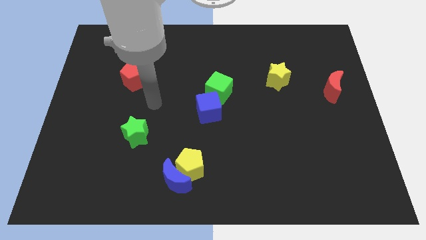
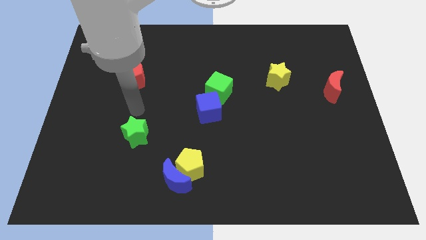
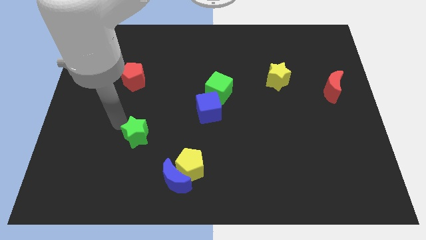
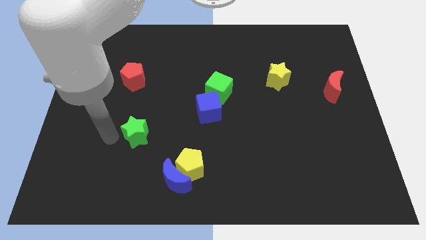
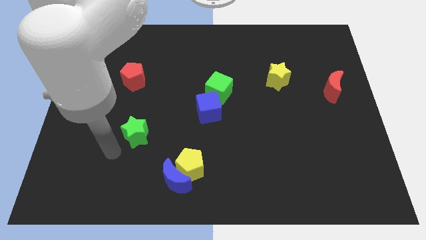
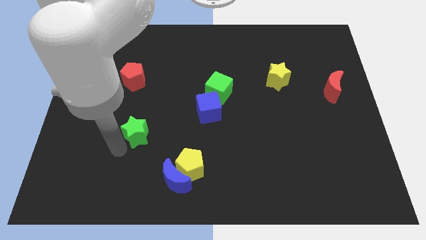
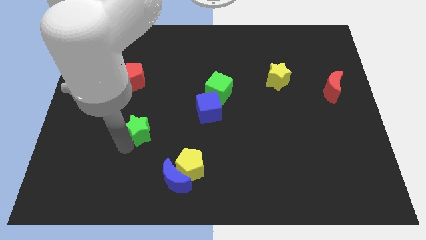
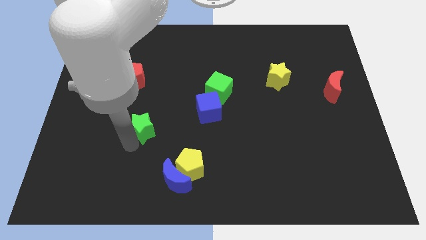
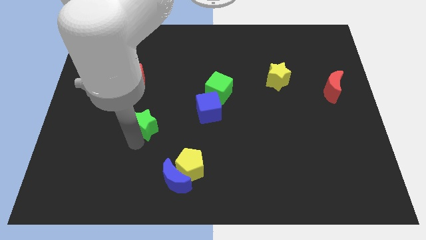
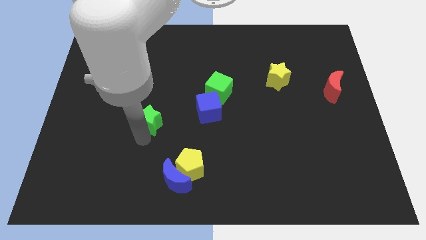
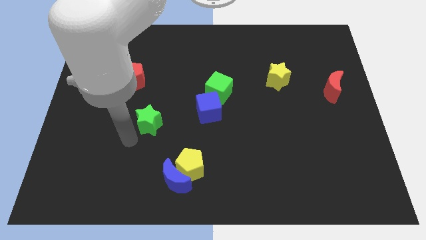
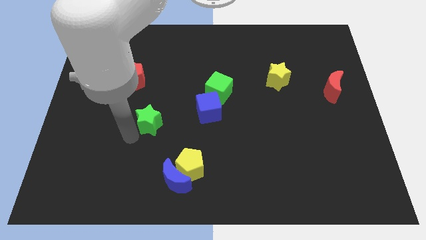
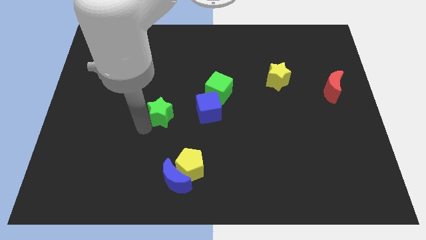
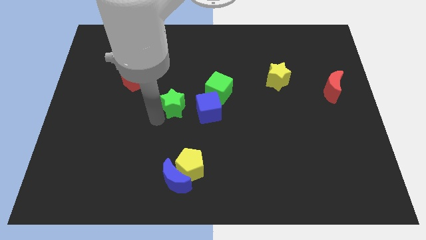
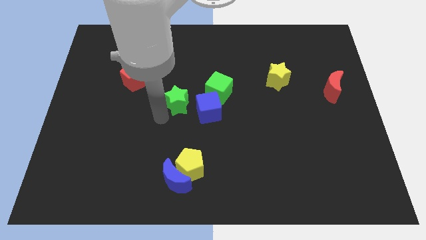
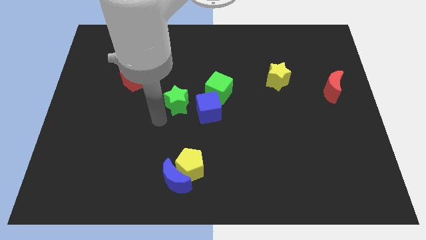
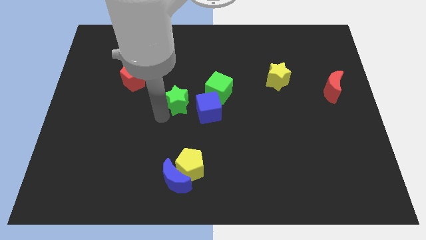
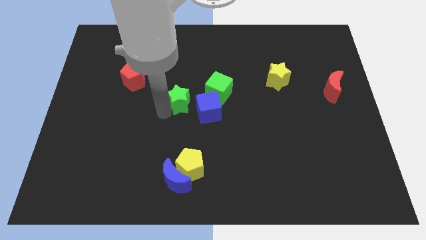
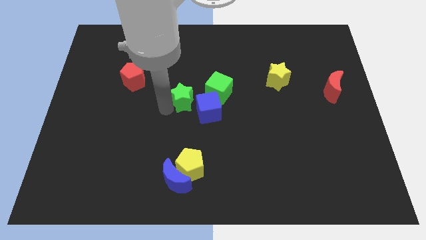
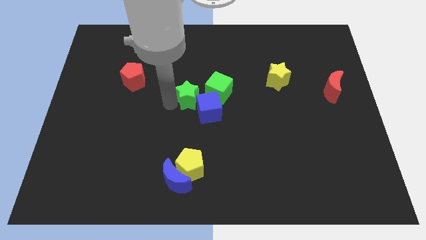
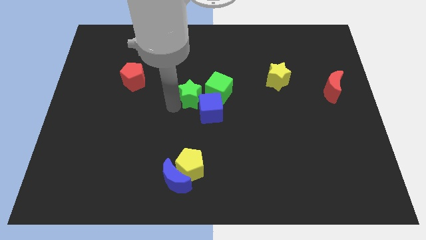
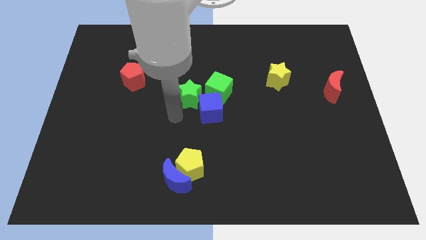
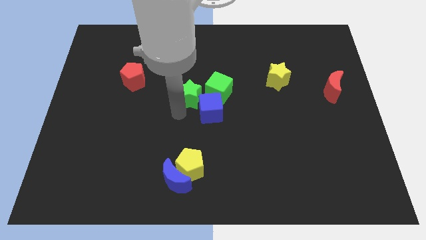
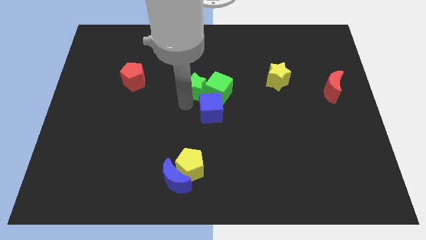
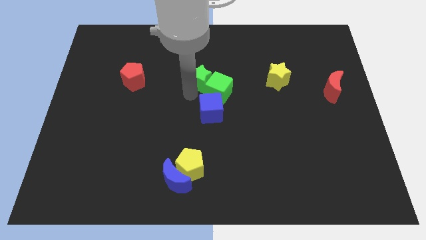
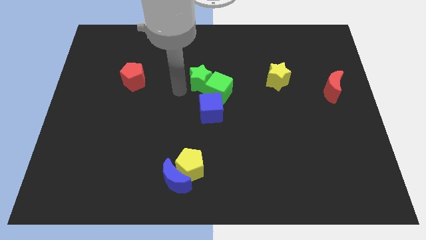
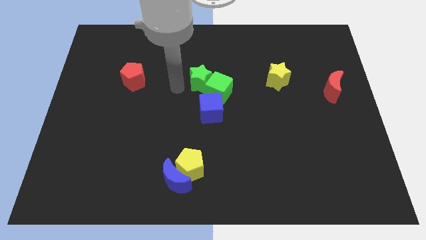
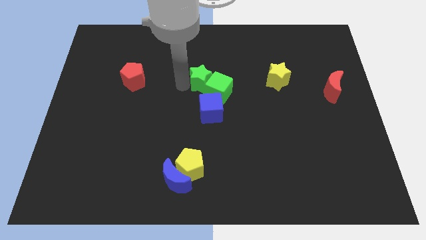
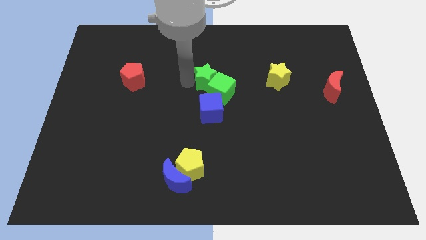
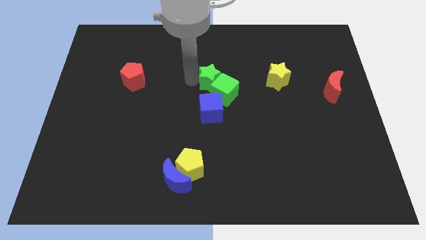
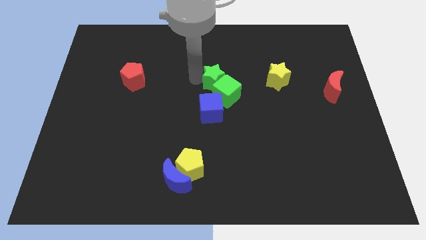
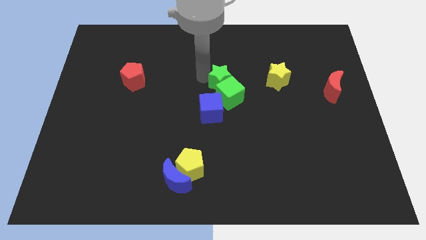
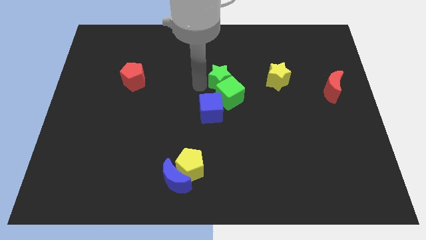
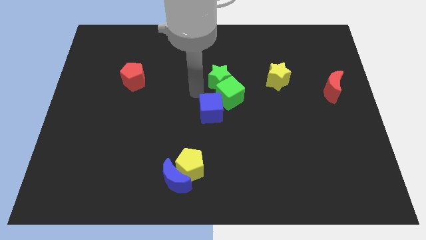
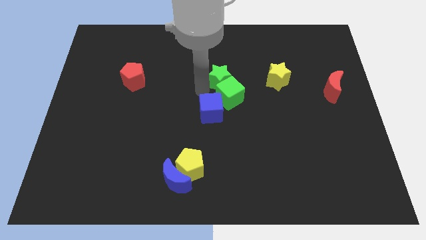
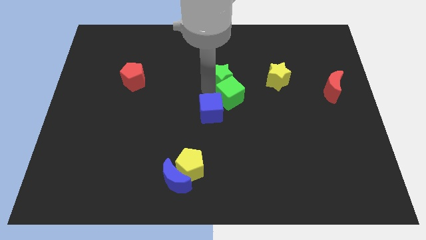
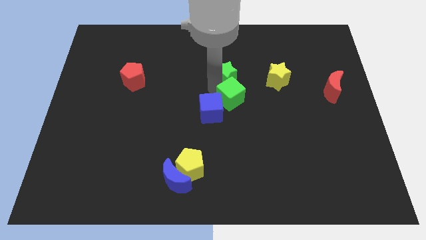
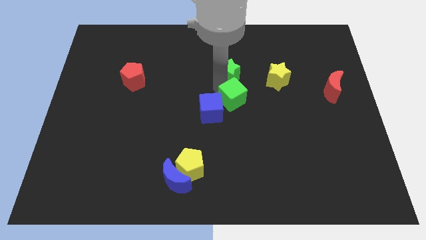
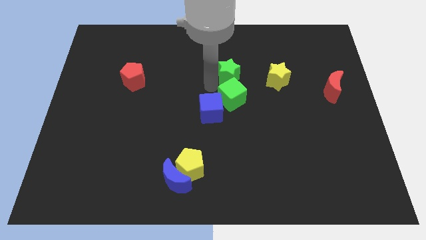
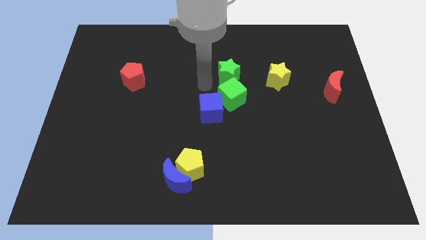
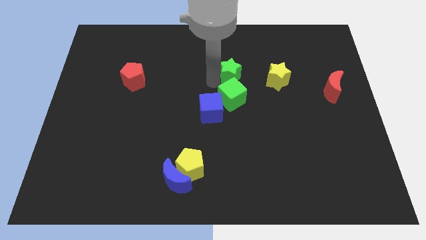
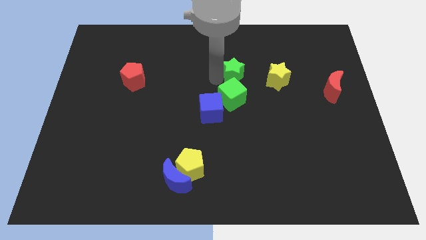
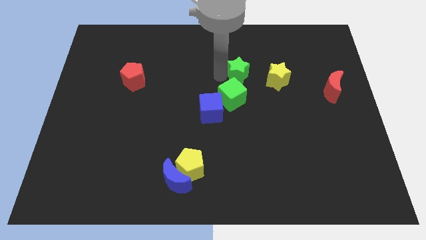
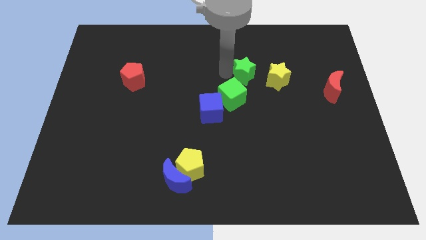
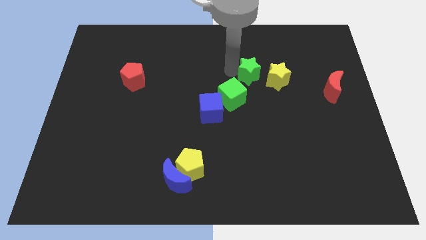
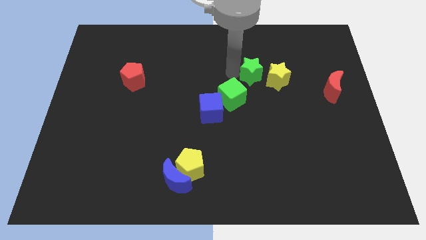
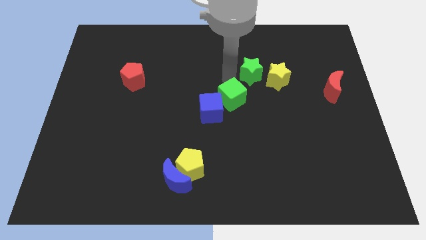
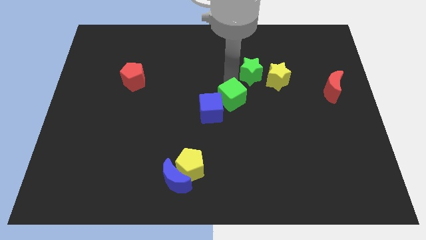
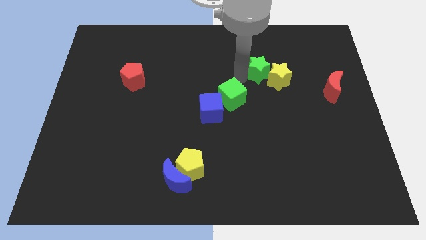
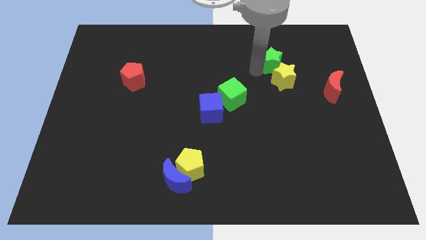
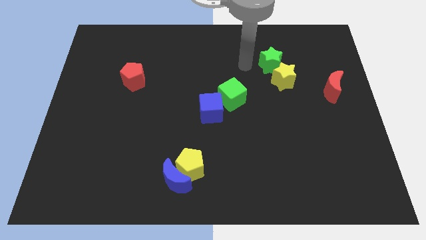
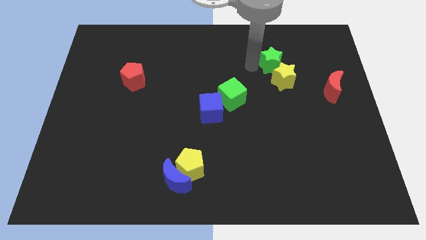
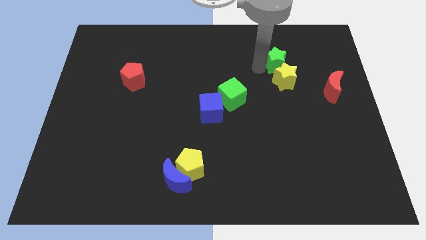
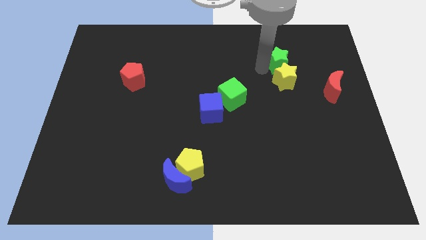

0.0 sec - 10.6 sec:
put the green star diagonally up and to the right of the yellow star

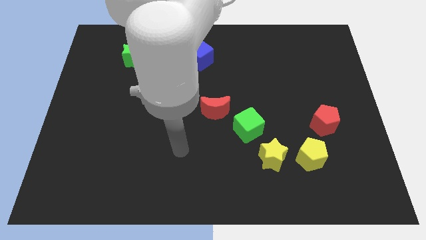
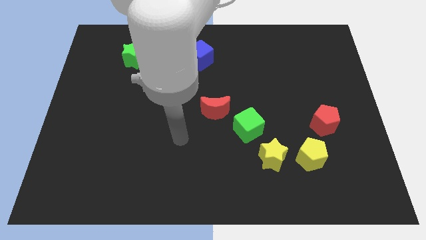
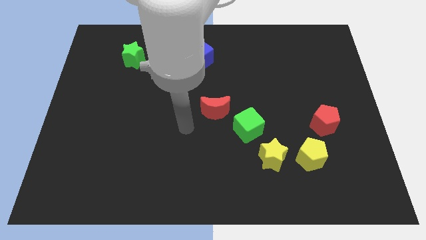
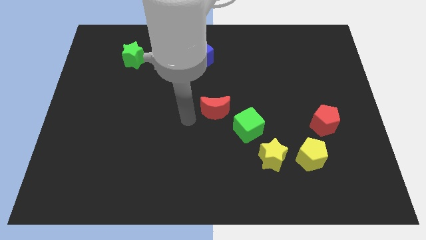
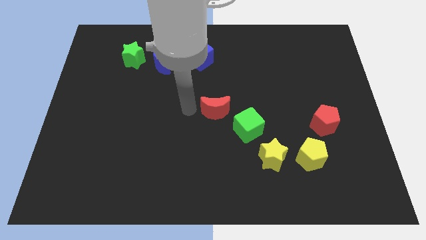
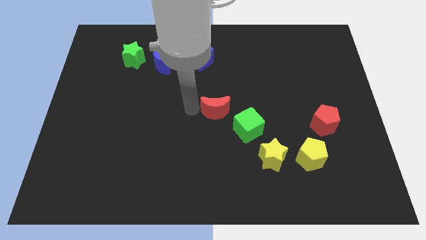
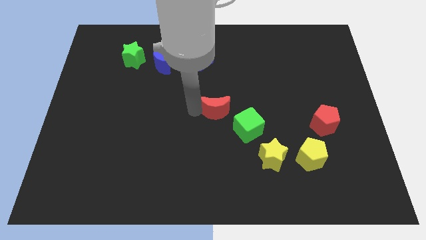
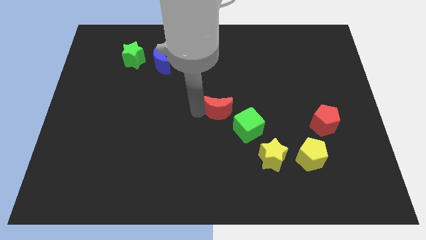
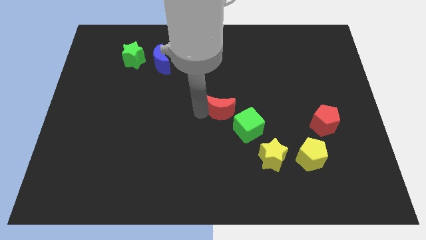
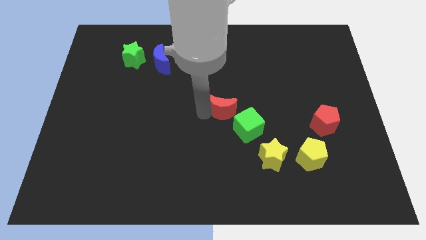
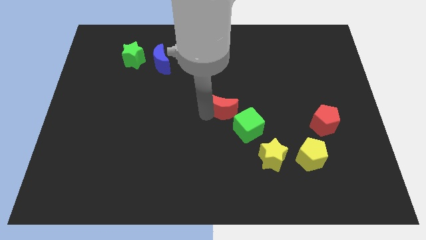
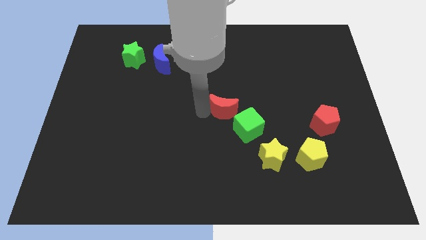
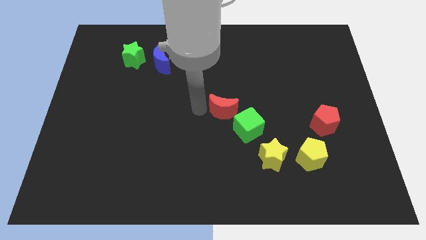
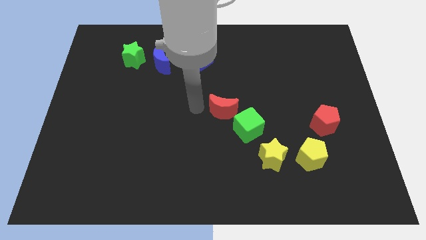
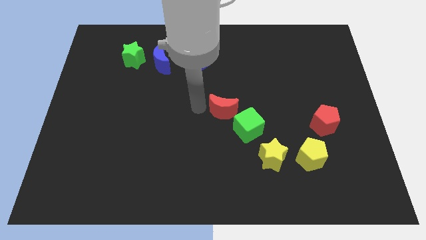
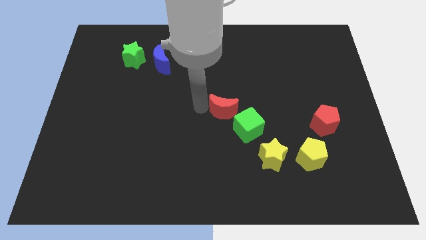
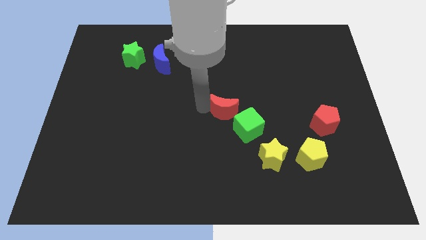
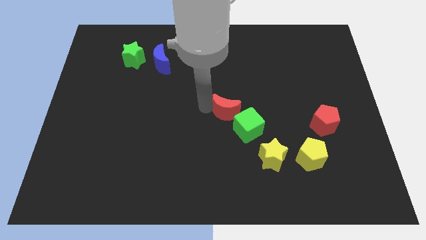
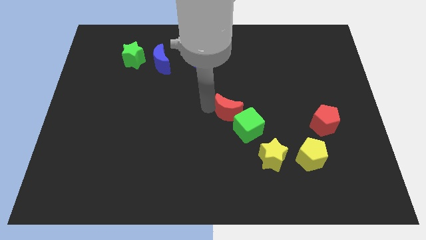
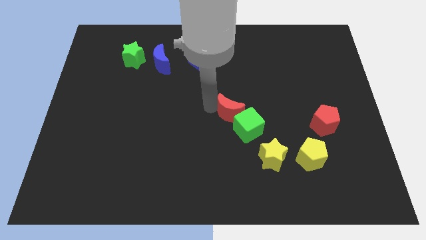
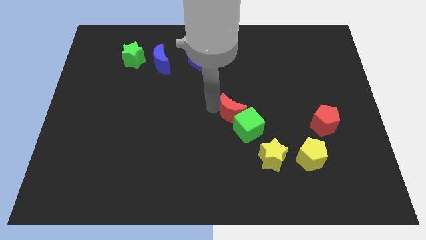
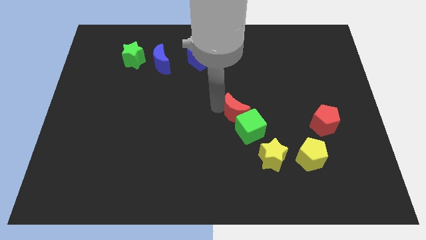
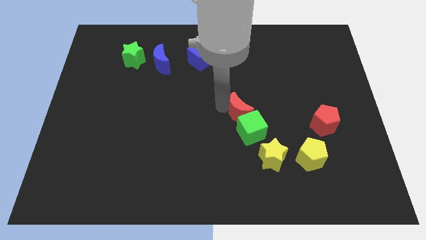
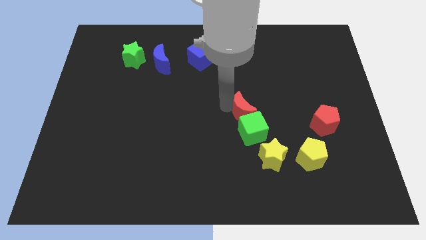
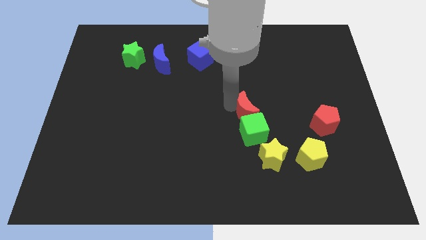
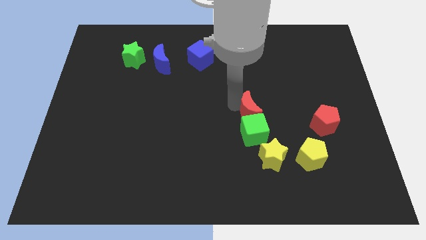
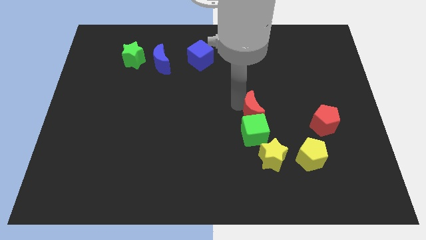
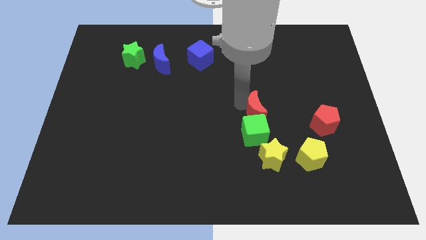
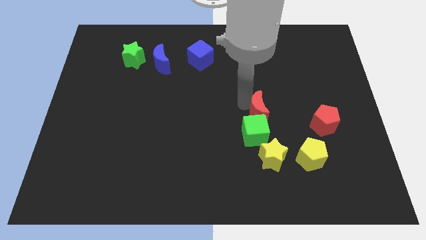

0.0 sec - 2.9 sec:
move the red moon to the left of the red pentagon
